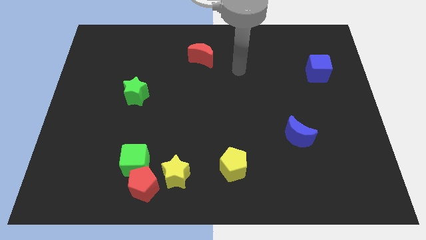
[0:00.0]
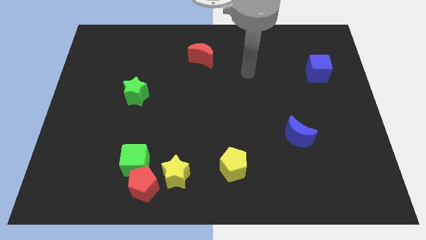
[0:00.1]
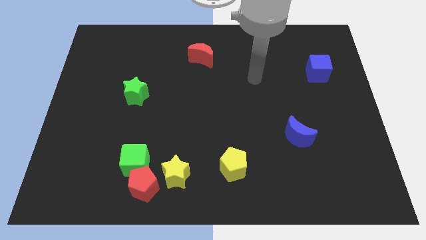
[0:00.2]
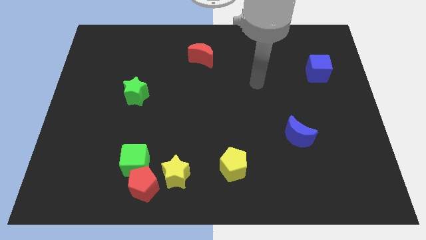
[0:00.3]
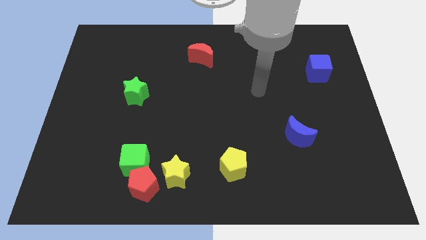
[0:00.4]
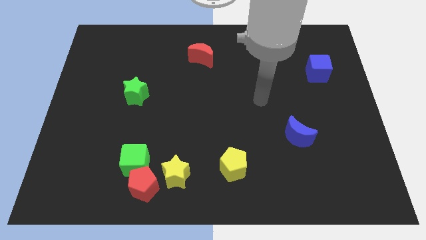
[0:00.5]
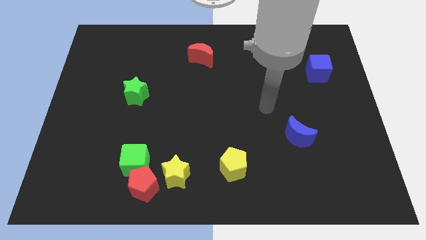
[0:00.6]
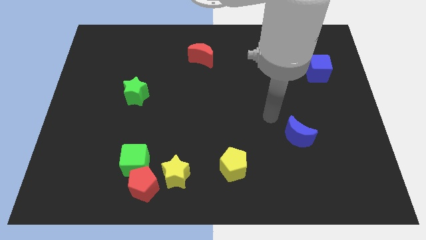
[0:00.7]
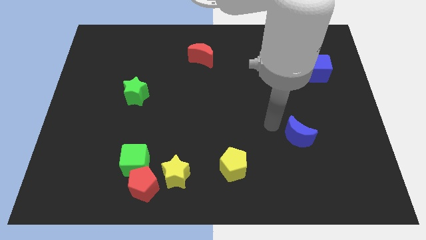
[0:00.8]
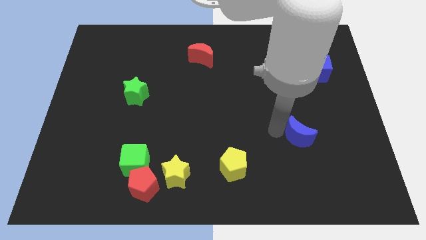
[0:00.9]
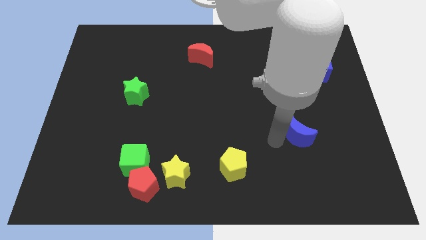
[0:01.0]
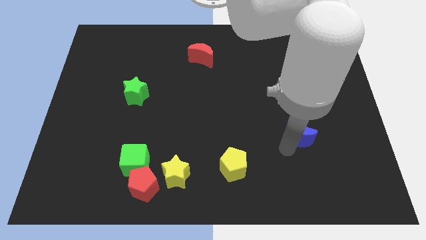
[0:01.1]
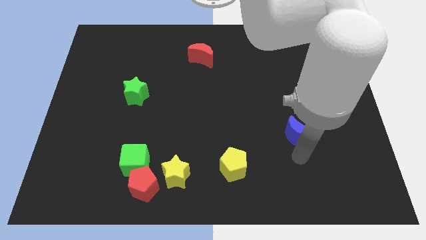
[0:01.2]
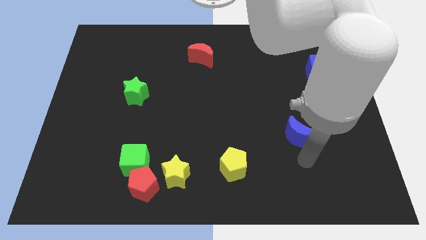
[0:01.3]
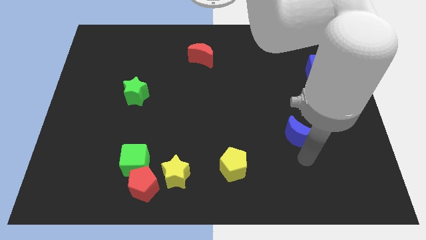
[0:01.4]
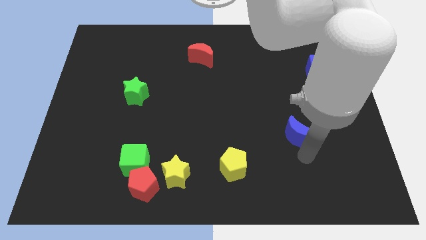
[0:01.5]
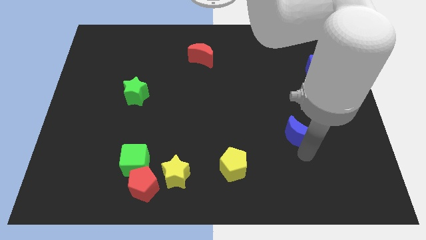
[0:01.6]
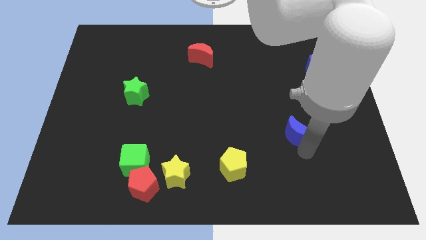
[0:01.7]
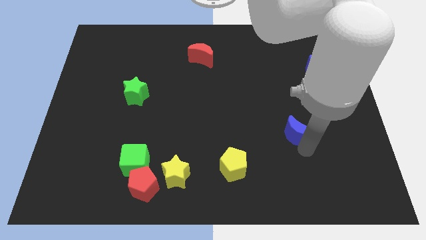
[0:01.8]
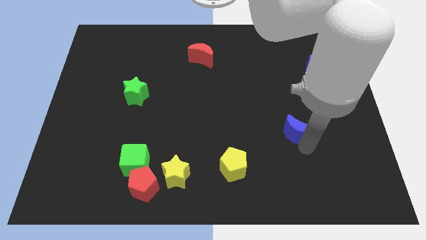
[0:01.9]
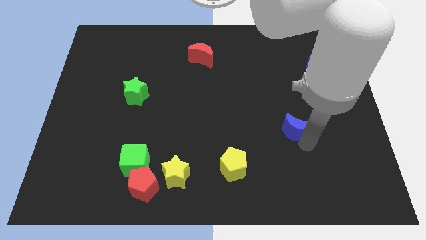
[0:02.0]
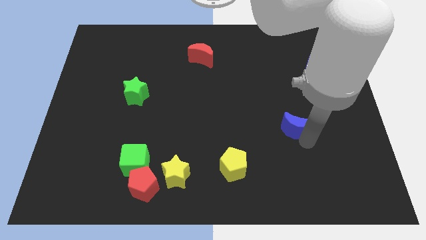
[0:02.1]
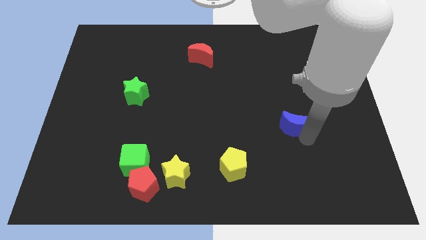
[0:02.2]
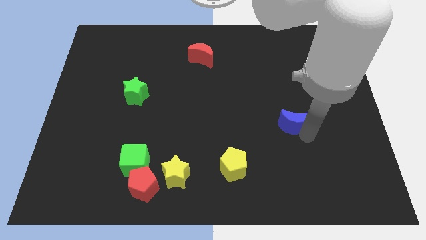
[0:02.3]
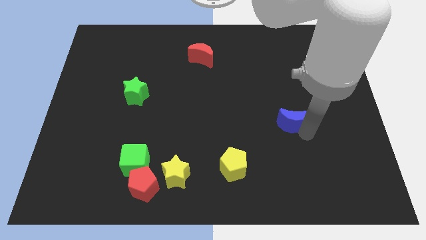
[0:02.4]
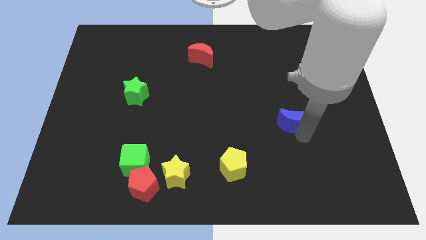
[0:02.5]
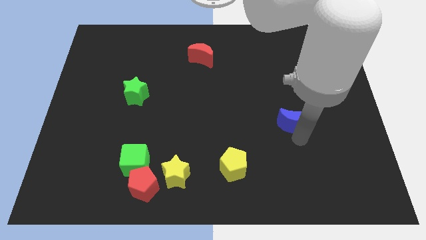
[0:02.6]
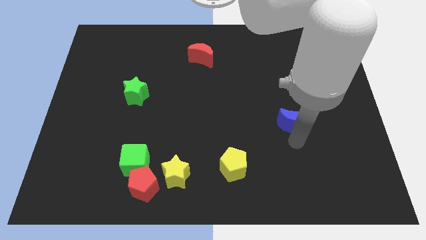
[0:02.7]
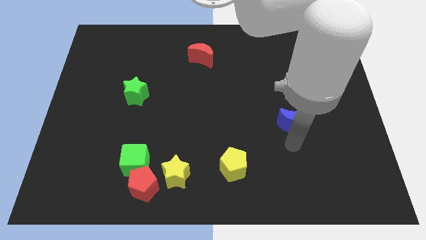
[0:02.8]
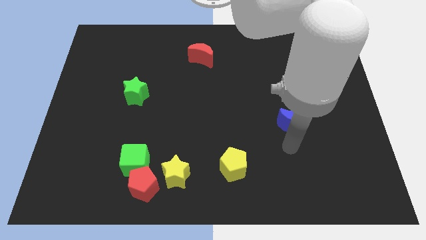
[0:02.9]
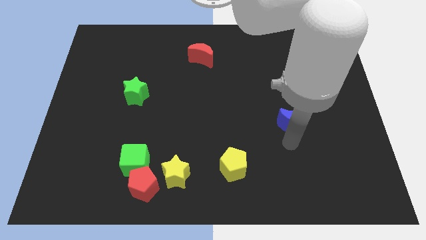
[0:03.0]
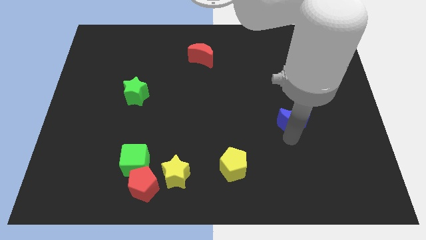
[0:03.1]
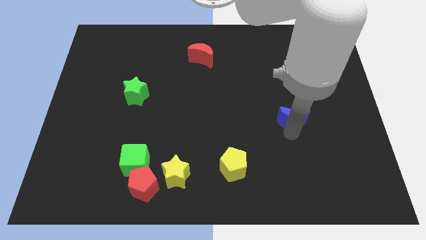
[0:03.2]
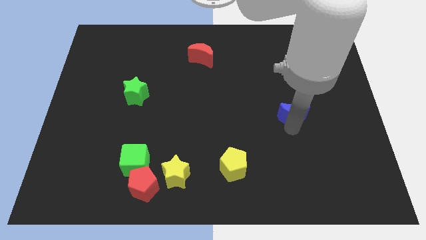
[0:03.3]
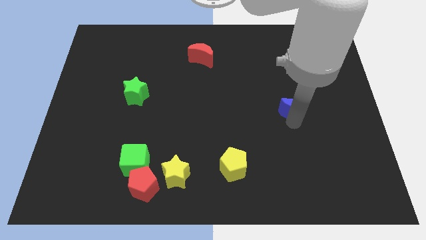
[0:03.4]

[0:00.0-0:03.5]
push the blue moon upwards a bit

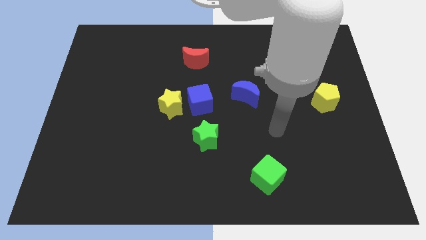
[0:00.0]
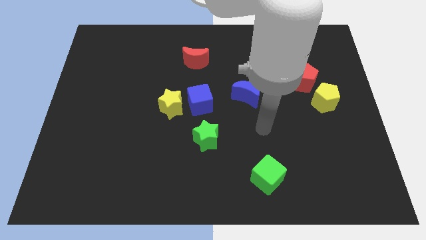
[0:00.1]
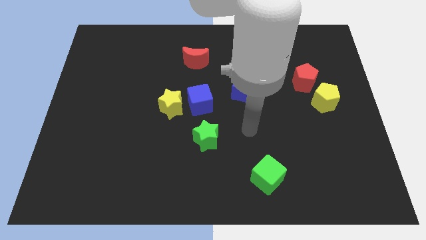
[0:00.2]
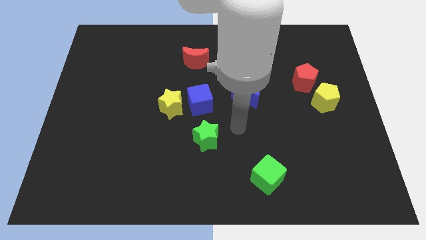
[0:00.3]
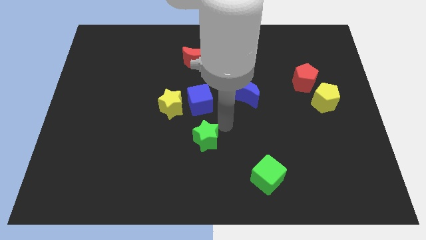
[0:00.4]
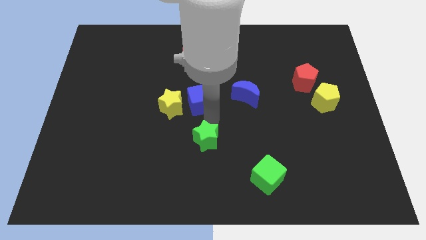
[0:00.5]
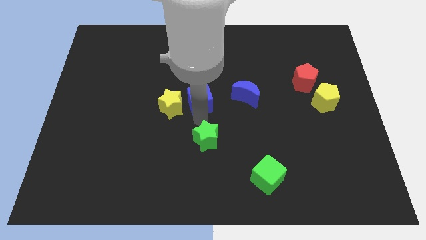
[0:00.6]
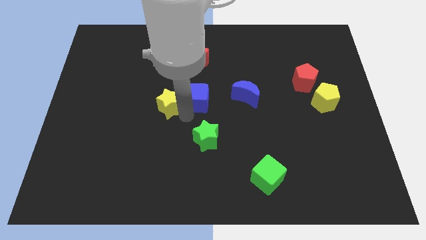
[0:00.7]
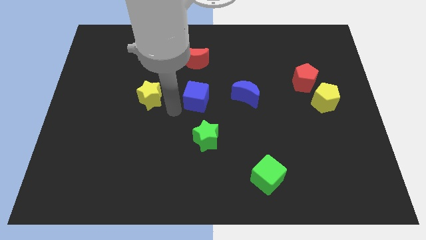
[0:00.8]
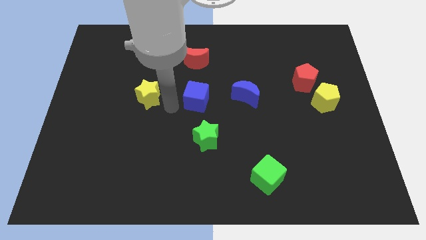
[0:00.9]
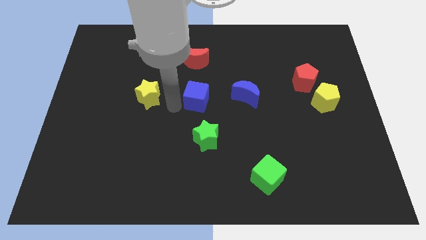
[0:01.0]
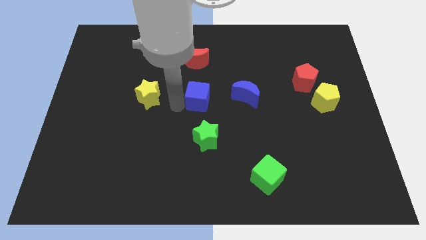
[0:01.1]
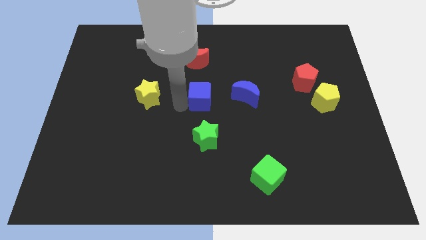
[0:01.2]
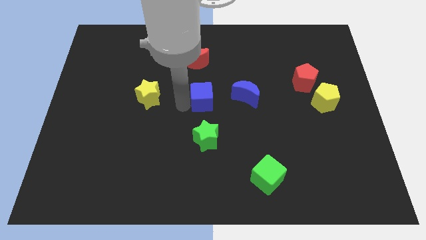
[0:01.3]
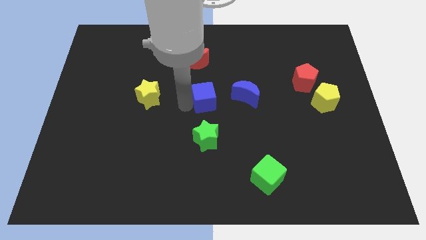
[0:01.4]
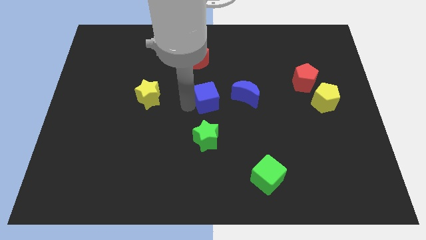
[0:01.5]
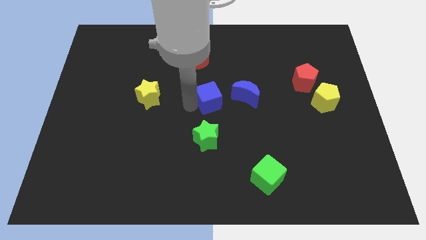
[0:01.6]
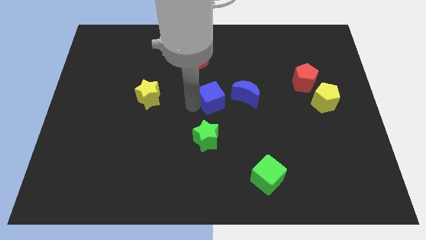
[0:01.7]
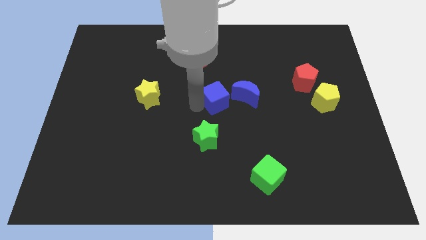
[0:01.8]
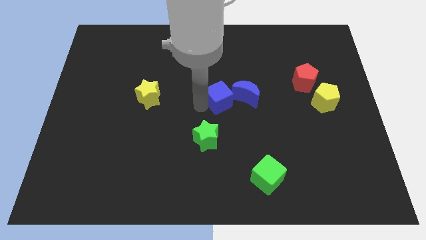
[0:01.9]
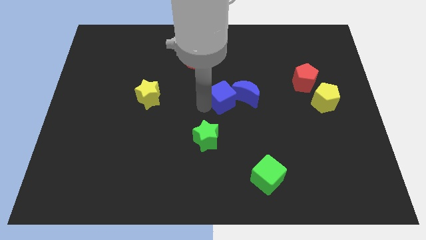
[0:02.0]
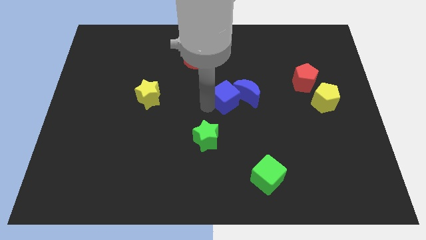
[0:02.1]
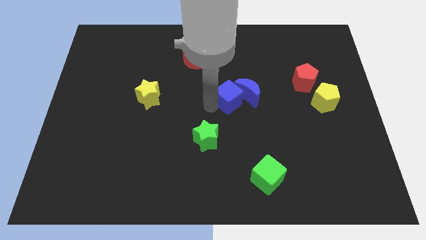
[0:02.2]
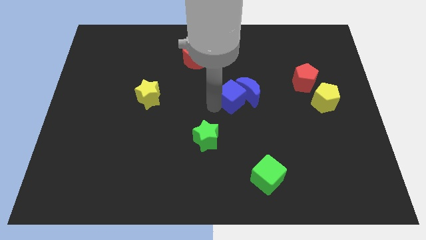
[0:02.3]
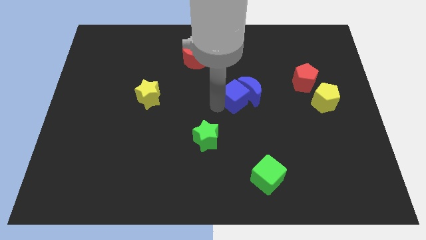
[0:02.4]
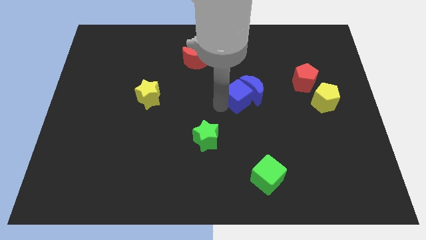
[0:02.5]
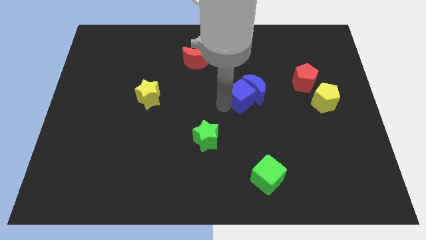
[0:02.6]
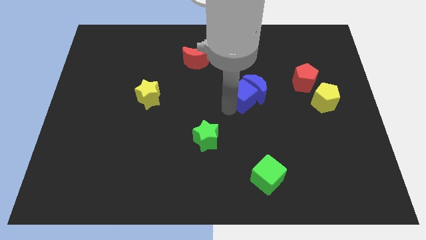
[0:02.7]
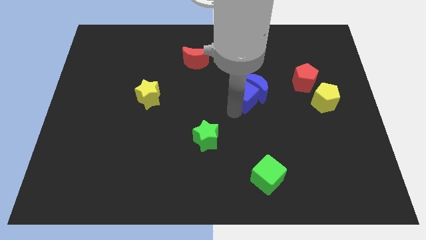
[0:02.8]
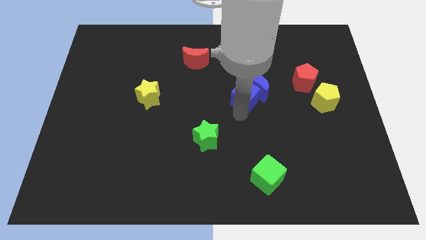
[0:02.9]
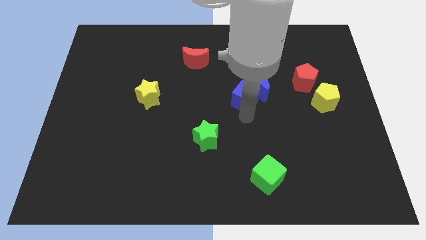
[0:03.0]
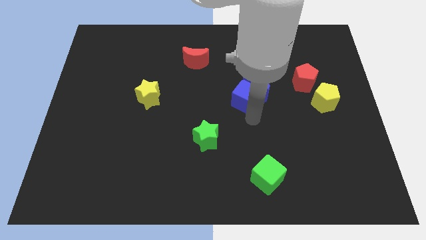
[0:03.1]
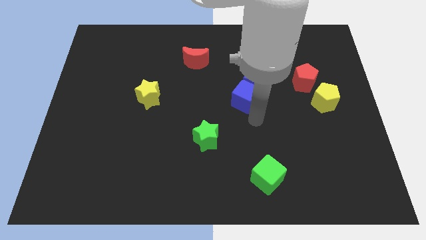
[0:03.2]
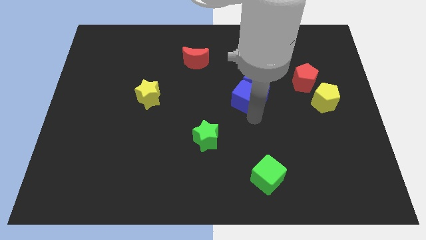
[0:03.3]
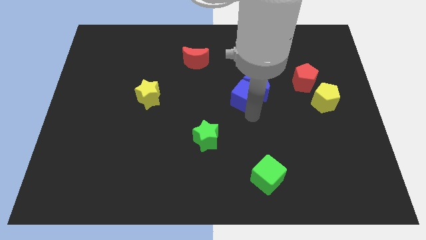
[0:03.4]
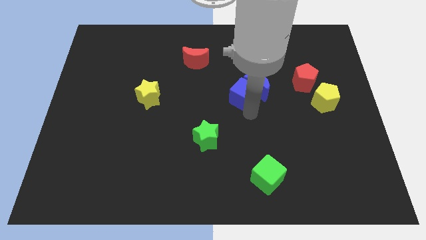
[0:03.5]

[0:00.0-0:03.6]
slightly slide the blue cube up and right diagonally

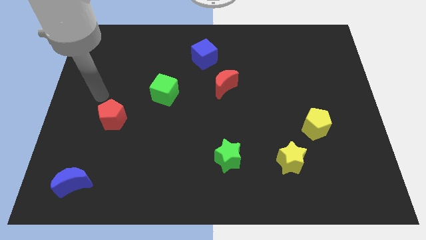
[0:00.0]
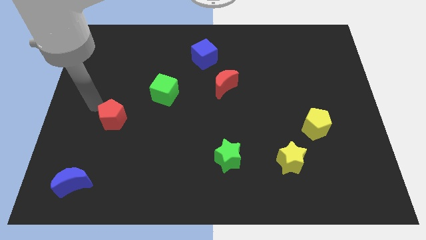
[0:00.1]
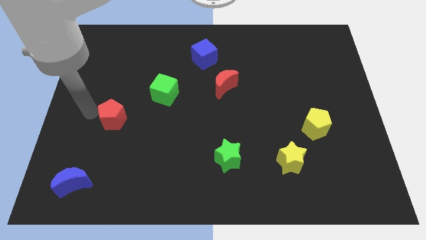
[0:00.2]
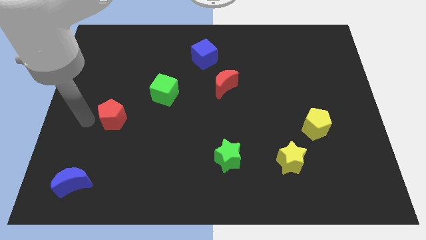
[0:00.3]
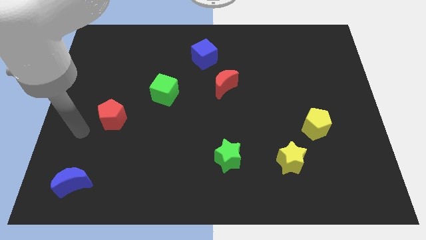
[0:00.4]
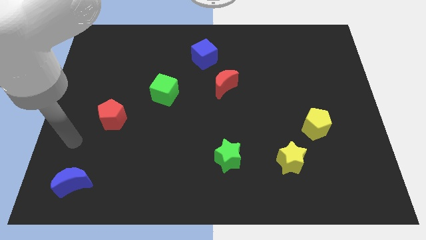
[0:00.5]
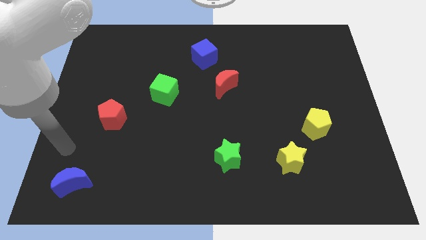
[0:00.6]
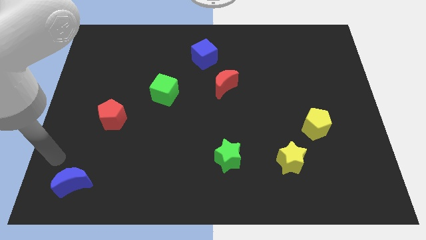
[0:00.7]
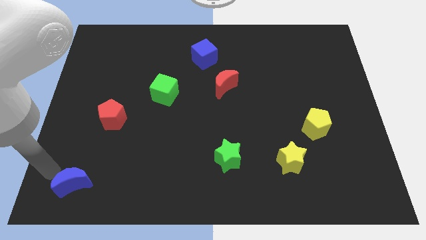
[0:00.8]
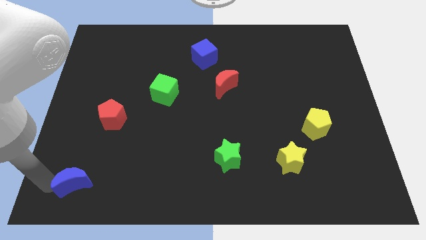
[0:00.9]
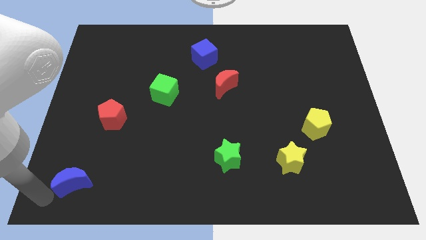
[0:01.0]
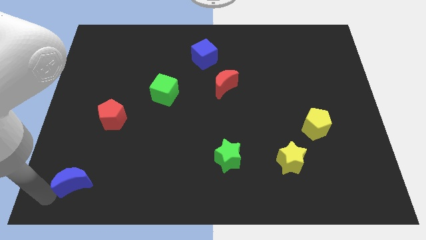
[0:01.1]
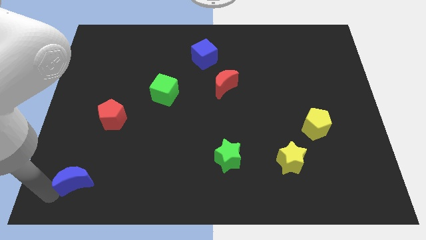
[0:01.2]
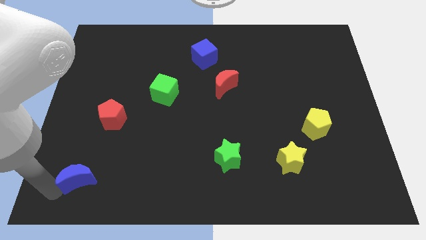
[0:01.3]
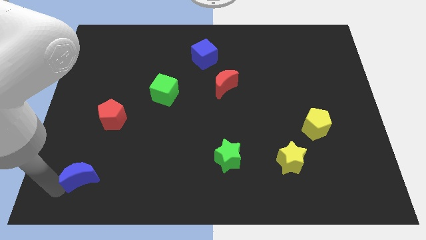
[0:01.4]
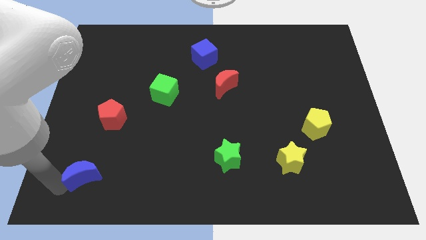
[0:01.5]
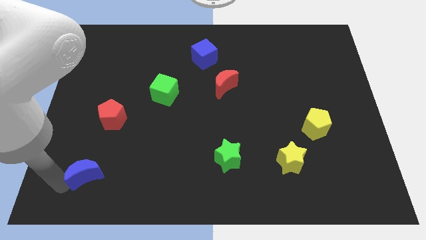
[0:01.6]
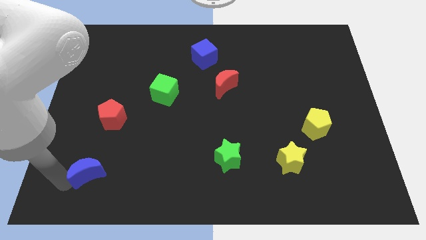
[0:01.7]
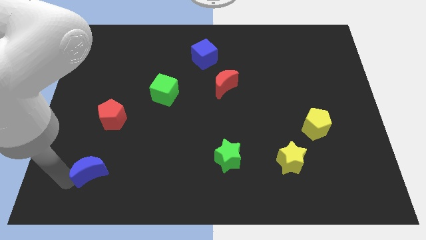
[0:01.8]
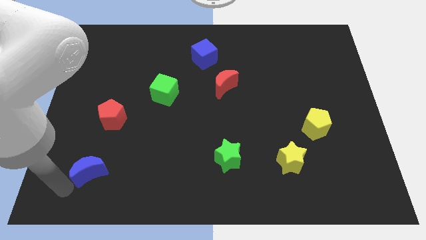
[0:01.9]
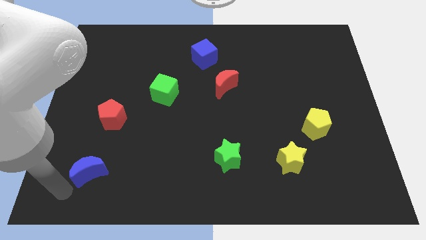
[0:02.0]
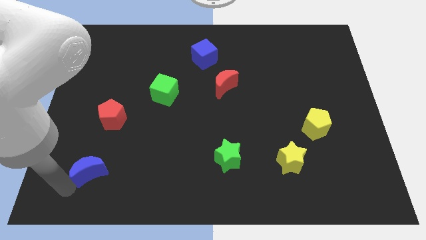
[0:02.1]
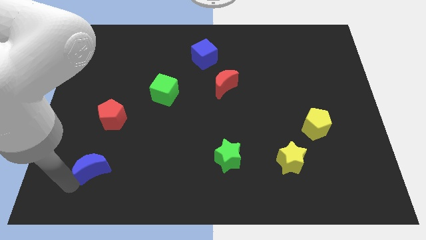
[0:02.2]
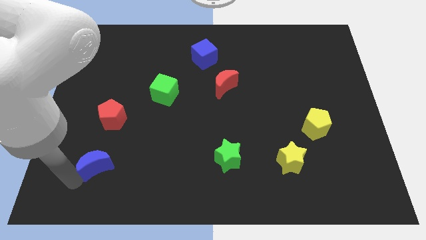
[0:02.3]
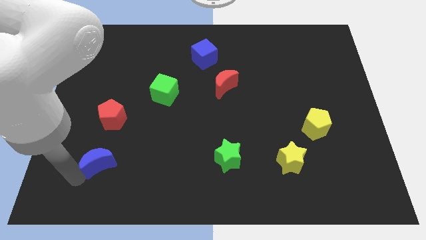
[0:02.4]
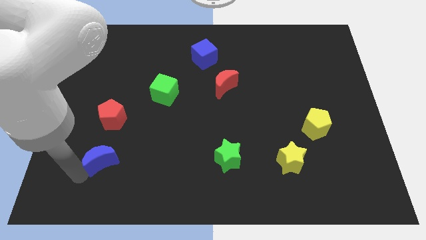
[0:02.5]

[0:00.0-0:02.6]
slide the blue moon up and then right somewhat
